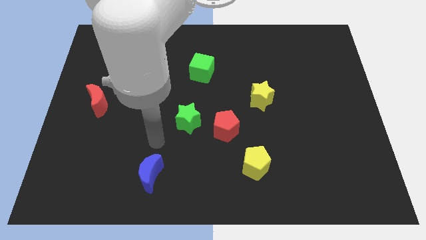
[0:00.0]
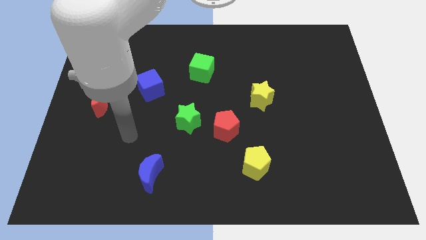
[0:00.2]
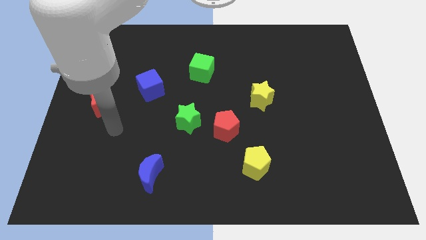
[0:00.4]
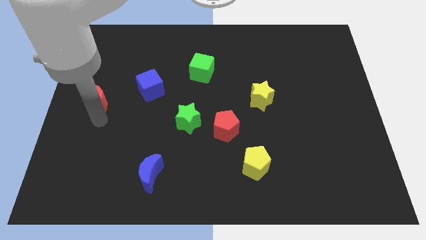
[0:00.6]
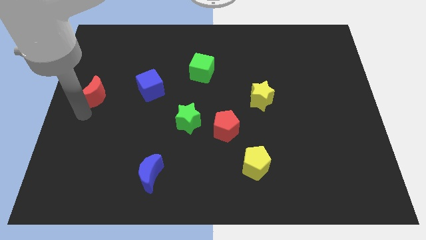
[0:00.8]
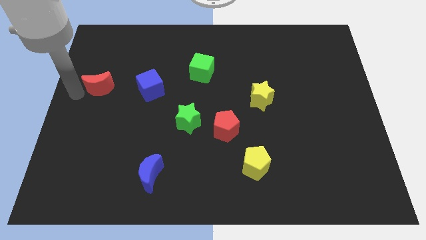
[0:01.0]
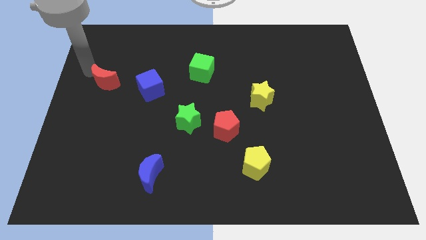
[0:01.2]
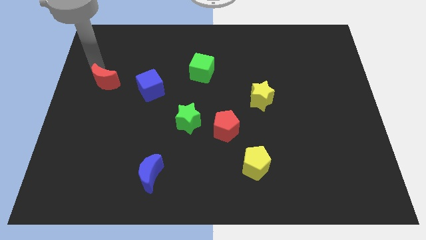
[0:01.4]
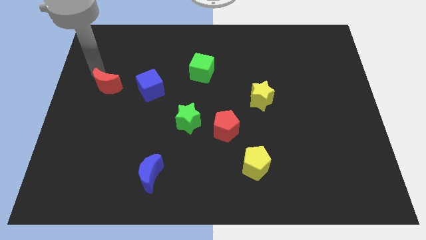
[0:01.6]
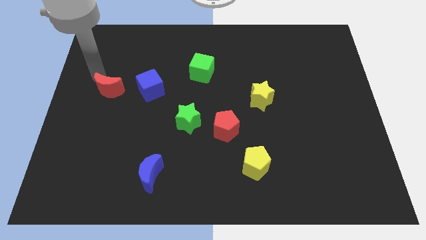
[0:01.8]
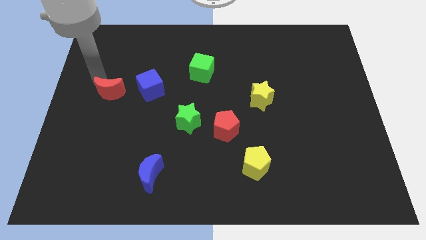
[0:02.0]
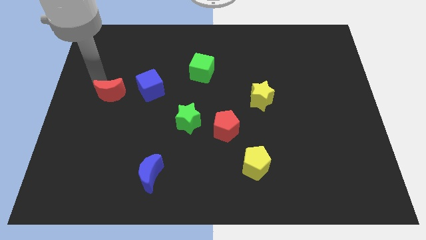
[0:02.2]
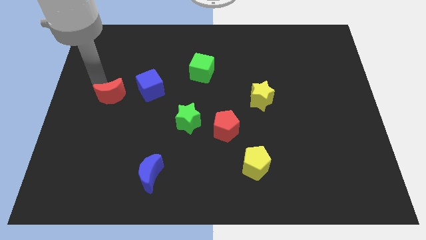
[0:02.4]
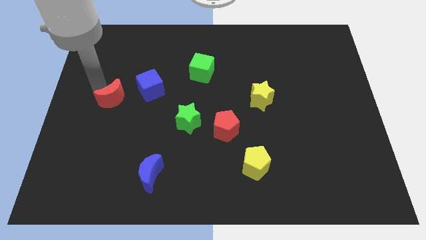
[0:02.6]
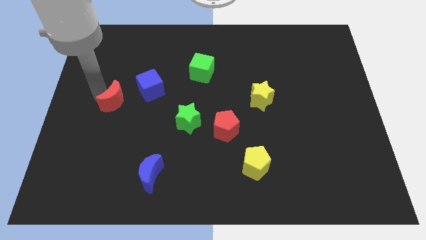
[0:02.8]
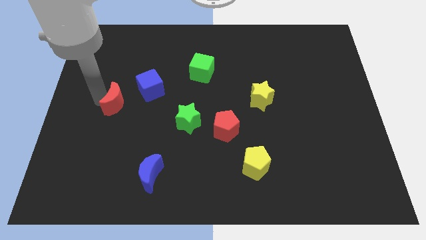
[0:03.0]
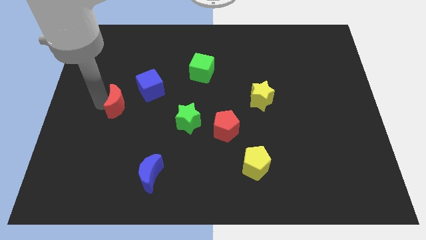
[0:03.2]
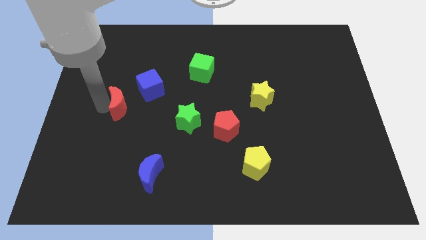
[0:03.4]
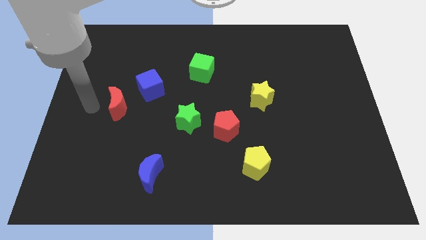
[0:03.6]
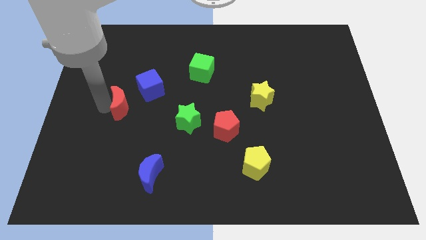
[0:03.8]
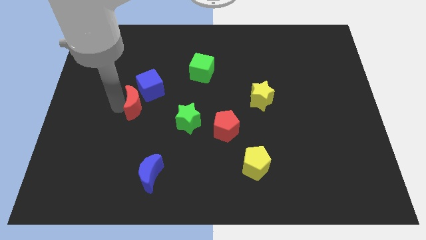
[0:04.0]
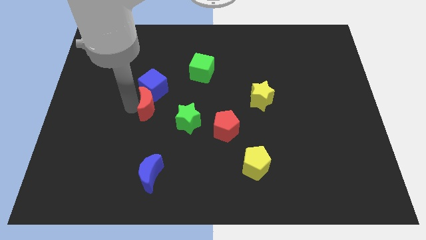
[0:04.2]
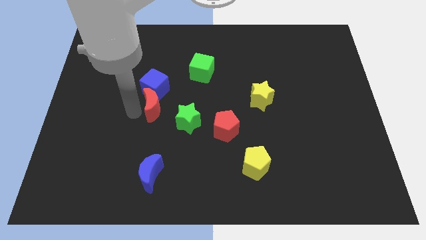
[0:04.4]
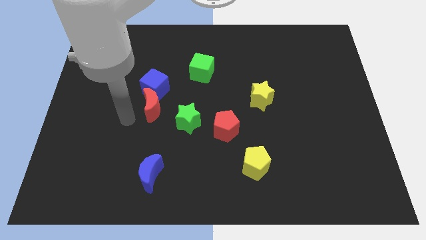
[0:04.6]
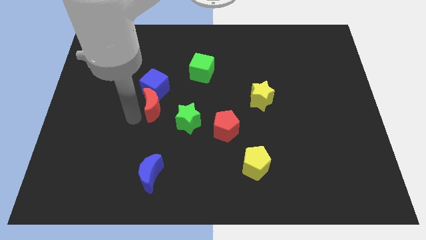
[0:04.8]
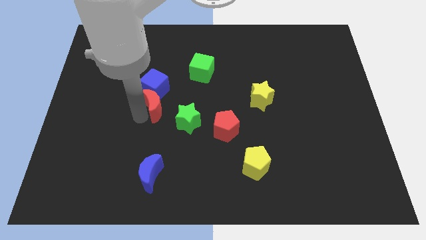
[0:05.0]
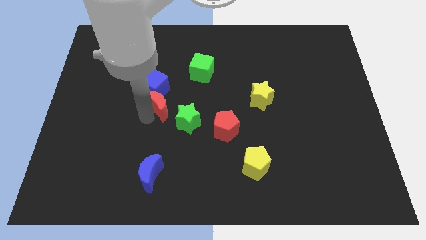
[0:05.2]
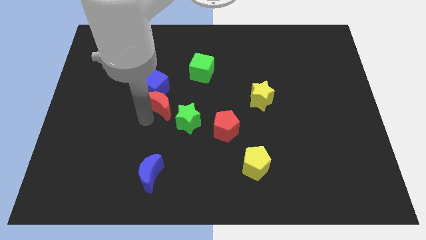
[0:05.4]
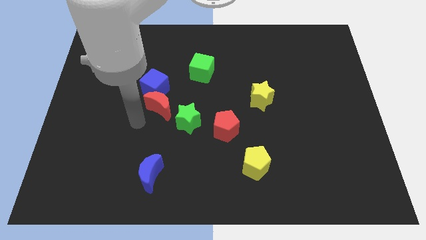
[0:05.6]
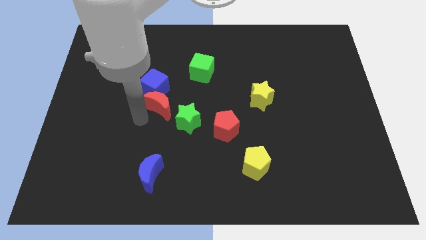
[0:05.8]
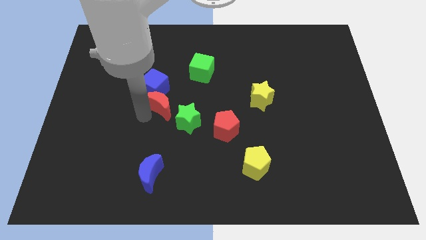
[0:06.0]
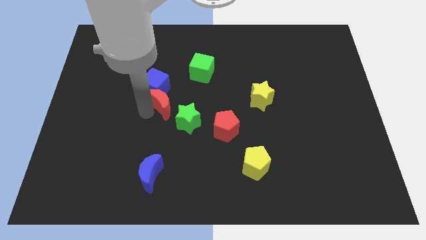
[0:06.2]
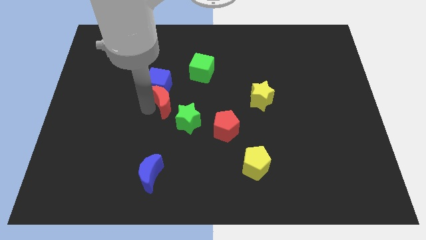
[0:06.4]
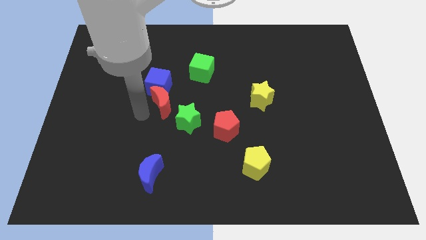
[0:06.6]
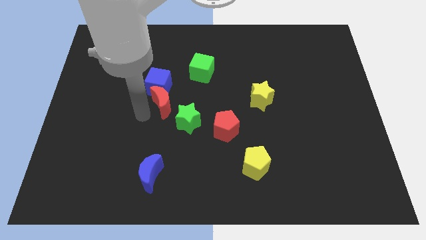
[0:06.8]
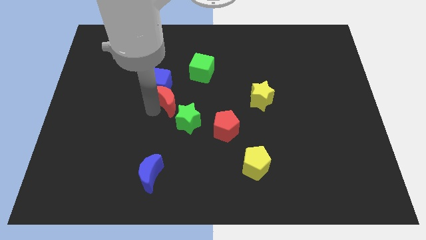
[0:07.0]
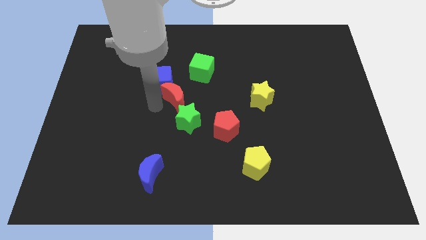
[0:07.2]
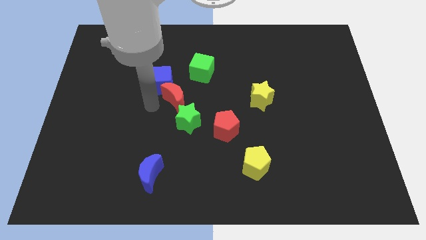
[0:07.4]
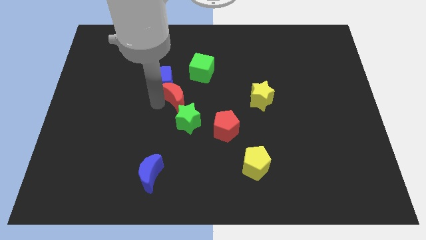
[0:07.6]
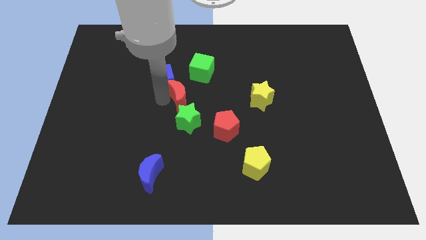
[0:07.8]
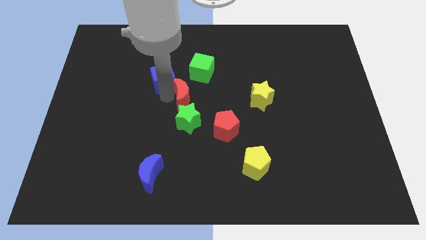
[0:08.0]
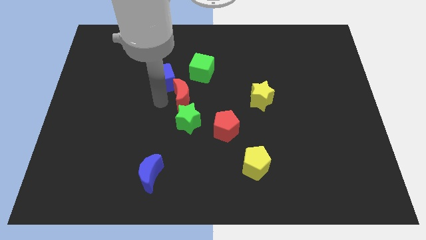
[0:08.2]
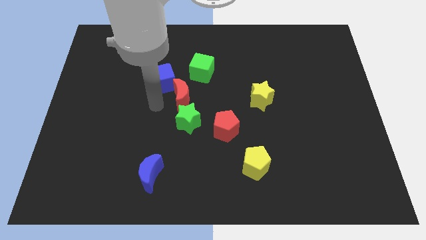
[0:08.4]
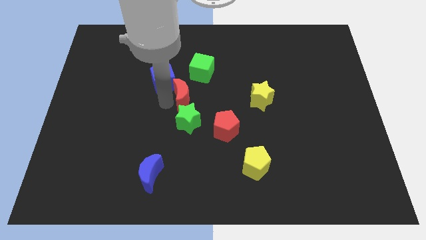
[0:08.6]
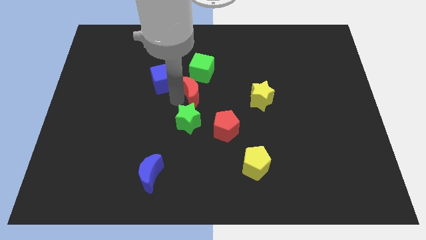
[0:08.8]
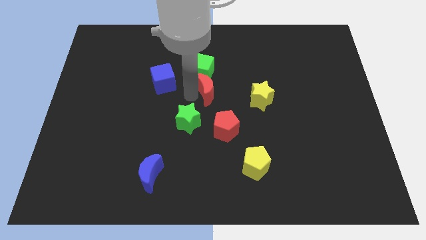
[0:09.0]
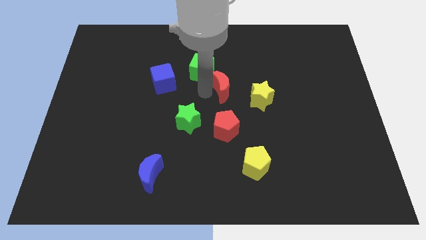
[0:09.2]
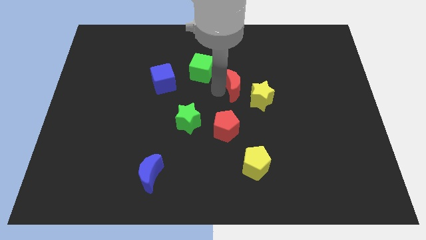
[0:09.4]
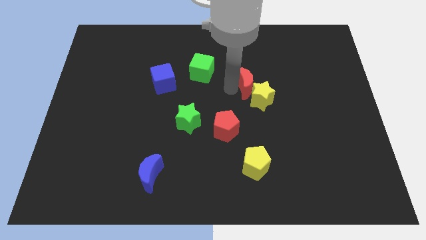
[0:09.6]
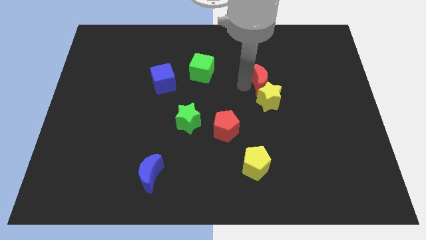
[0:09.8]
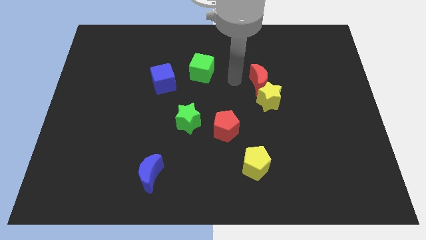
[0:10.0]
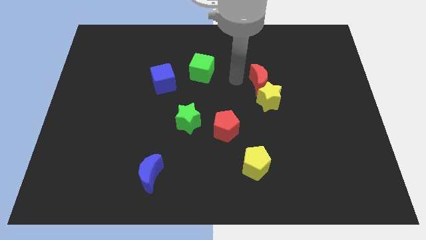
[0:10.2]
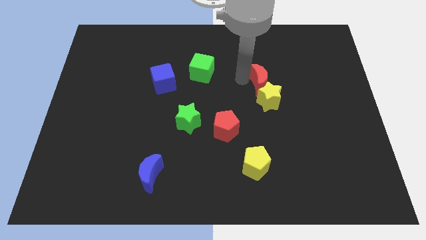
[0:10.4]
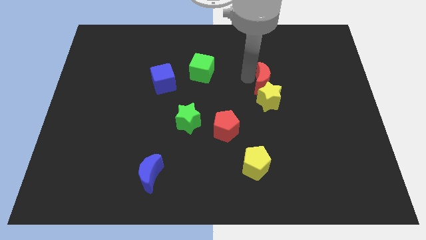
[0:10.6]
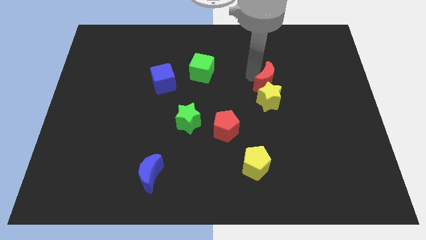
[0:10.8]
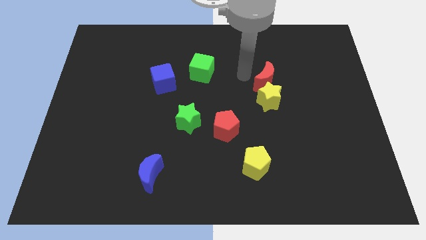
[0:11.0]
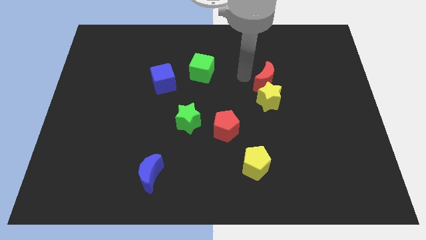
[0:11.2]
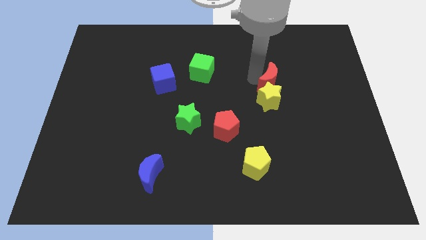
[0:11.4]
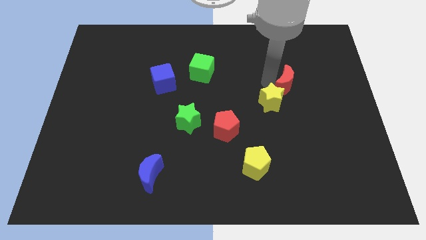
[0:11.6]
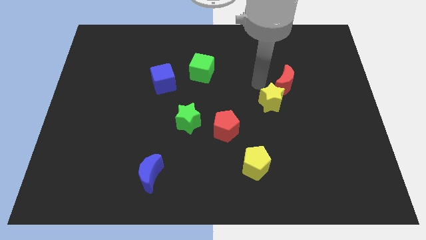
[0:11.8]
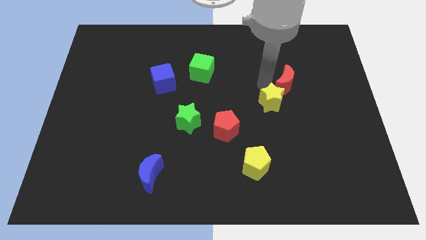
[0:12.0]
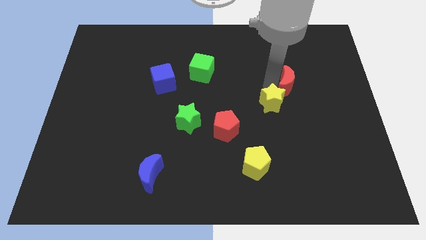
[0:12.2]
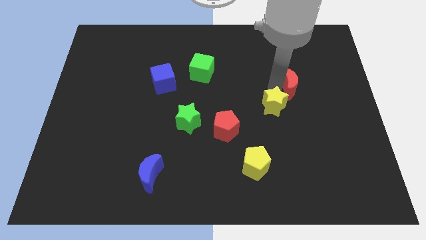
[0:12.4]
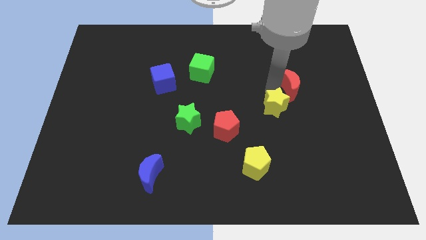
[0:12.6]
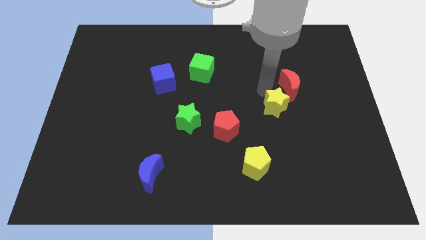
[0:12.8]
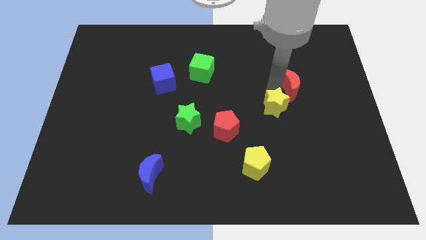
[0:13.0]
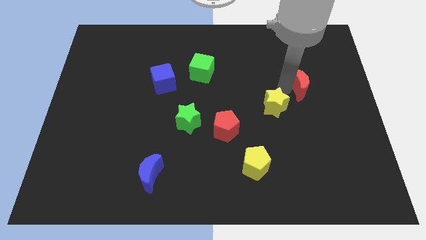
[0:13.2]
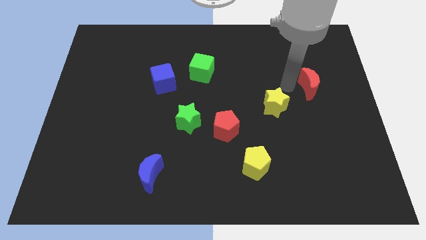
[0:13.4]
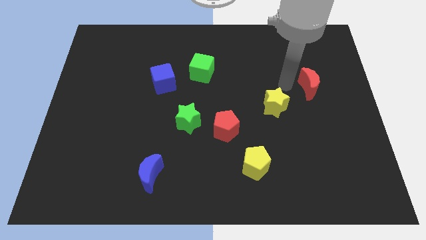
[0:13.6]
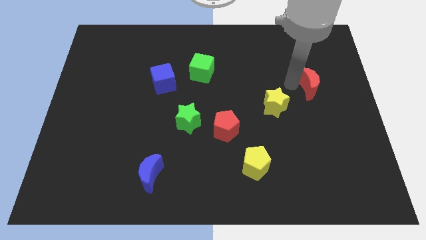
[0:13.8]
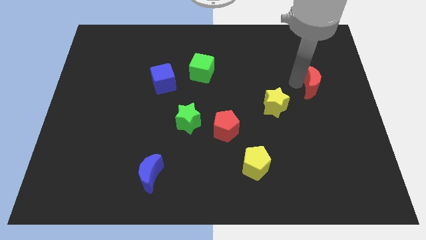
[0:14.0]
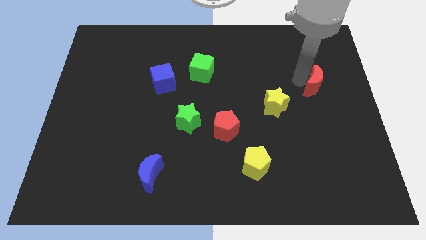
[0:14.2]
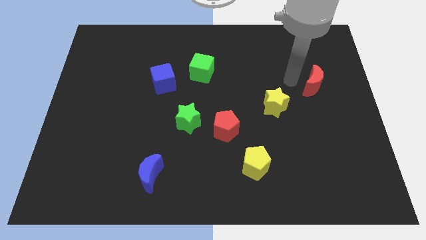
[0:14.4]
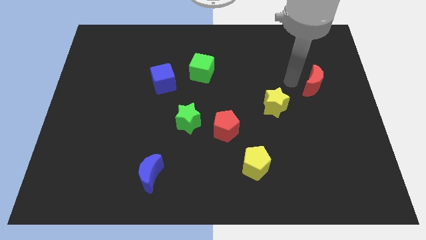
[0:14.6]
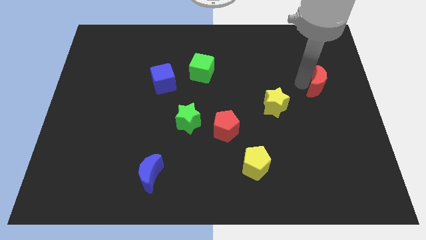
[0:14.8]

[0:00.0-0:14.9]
put the red moon to the right side of the board
